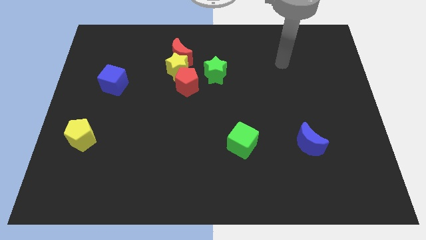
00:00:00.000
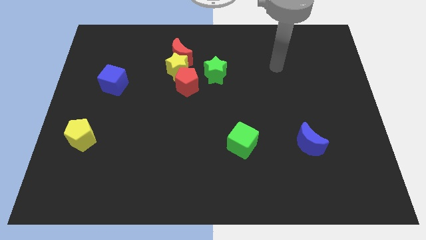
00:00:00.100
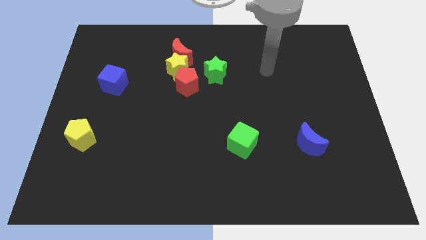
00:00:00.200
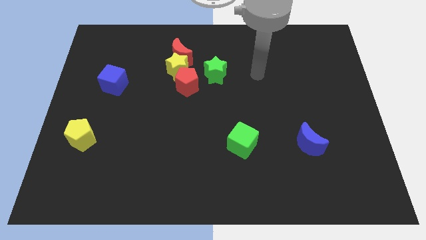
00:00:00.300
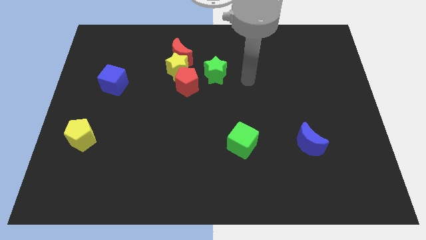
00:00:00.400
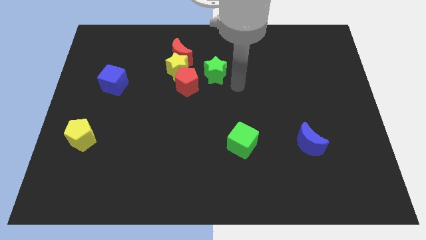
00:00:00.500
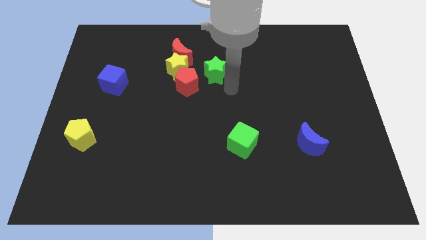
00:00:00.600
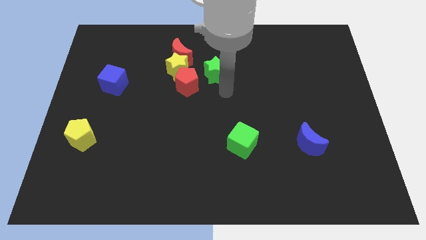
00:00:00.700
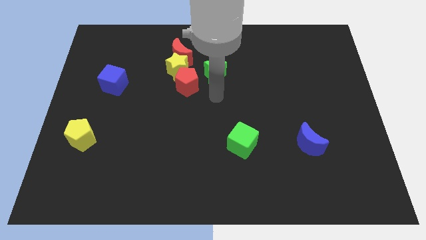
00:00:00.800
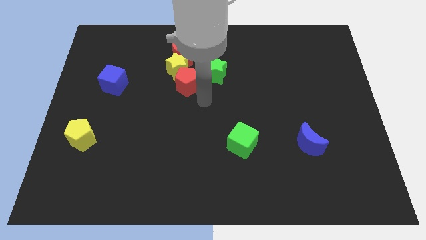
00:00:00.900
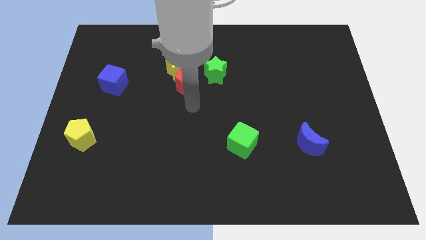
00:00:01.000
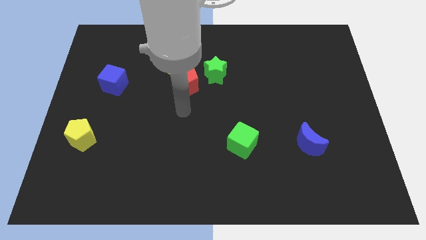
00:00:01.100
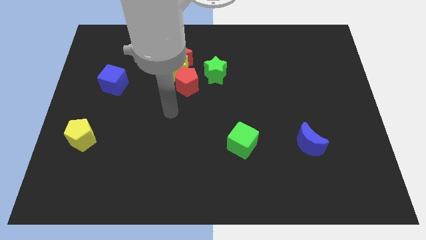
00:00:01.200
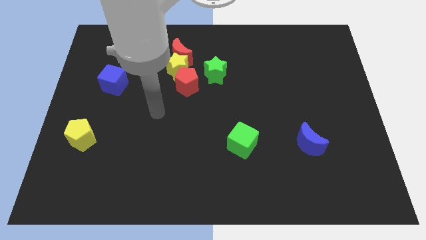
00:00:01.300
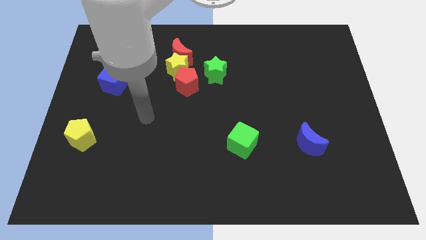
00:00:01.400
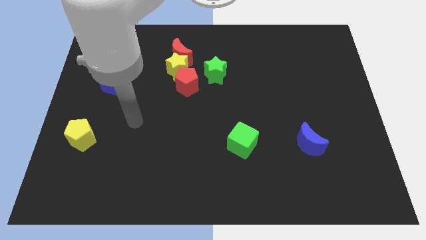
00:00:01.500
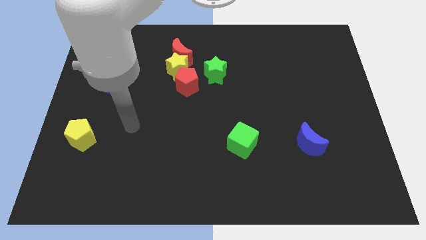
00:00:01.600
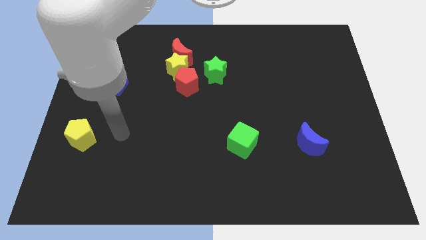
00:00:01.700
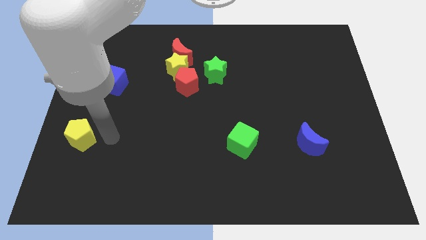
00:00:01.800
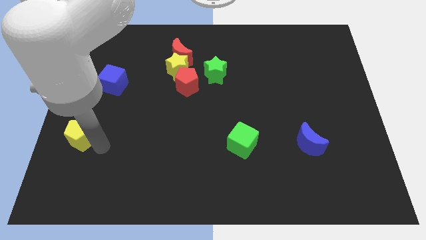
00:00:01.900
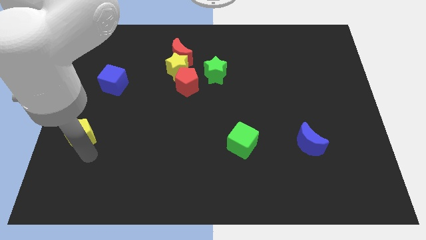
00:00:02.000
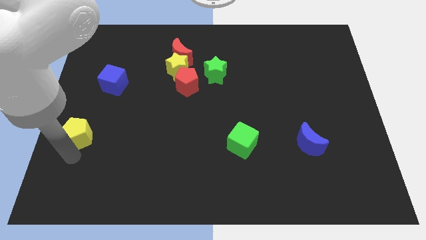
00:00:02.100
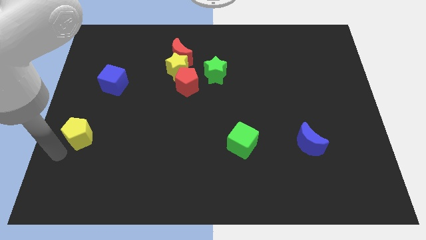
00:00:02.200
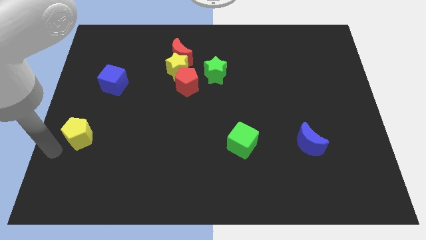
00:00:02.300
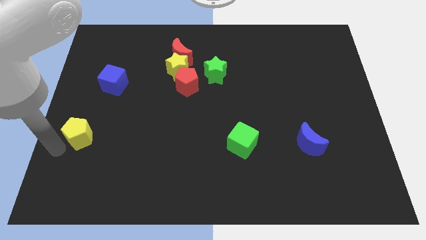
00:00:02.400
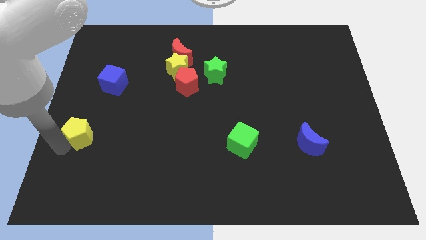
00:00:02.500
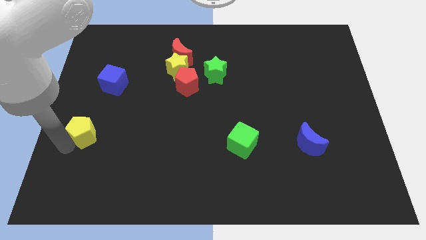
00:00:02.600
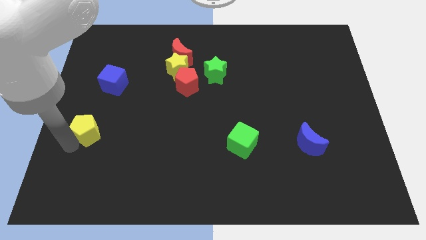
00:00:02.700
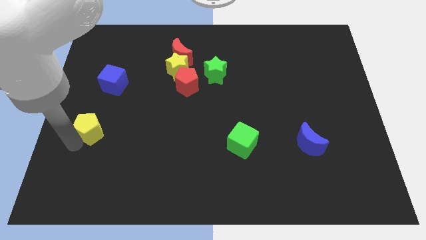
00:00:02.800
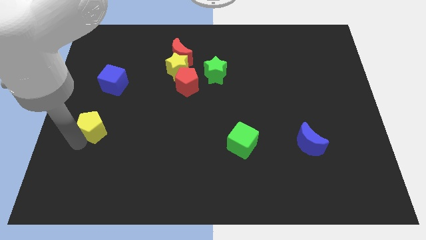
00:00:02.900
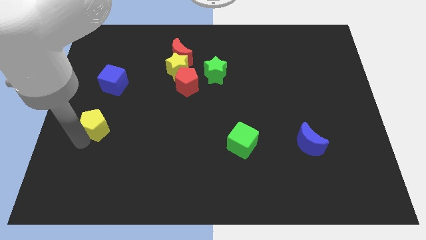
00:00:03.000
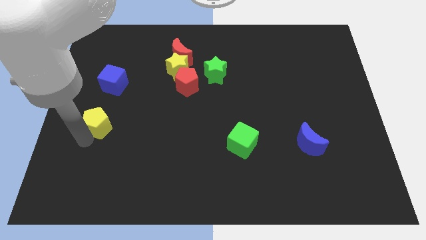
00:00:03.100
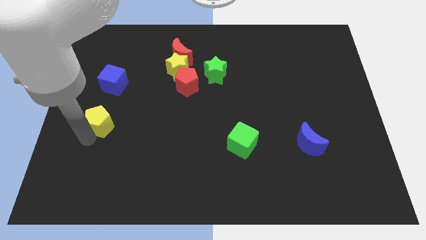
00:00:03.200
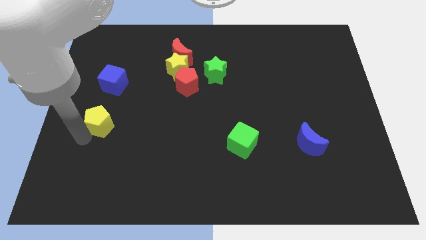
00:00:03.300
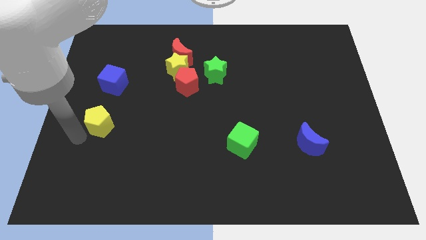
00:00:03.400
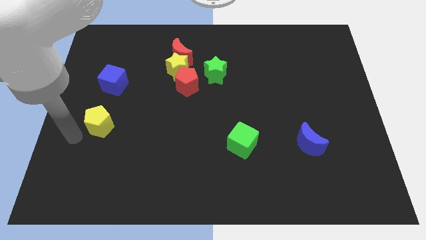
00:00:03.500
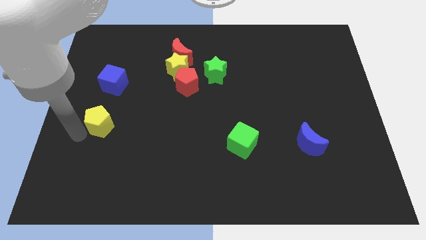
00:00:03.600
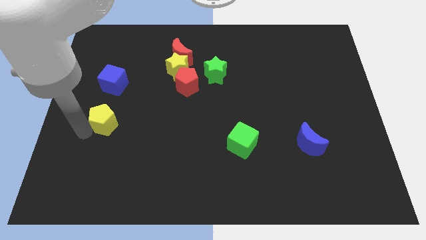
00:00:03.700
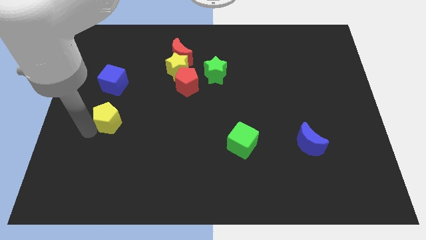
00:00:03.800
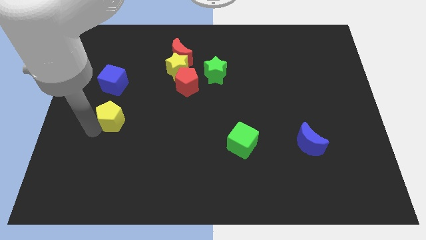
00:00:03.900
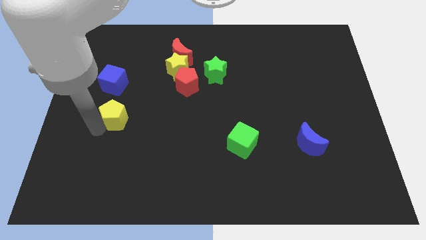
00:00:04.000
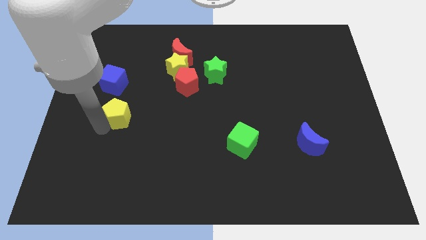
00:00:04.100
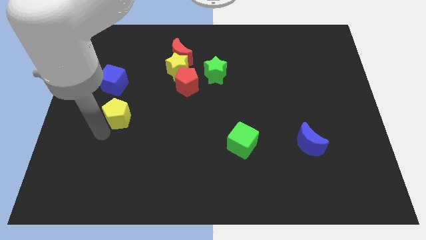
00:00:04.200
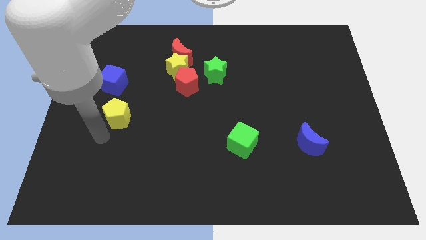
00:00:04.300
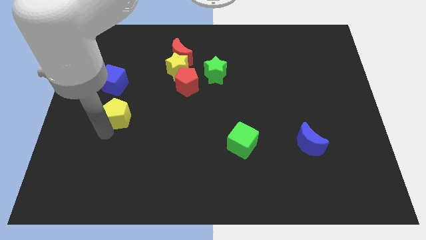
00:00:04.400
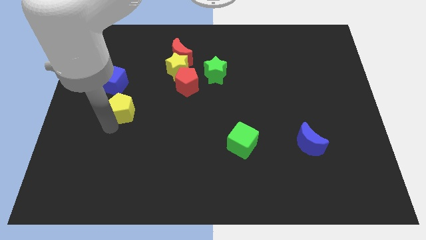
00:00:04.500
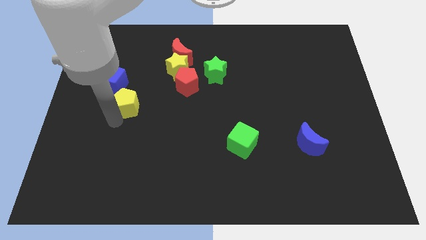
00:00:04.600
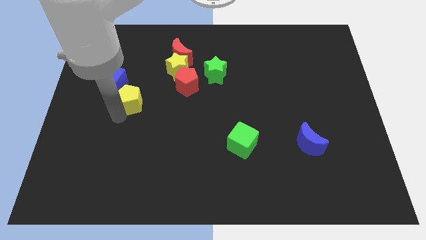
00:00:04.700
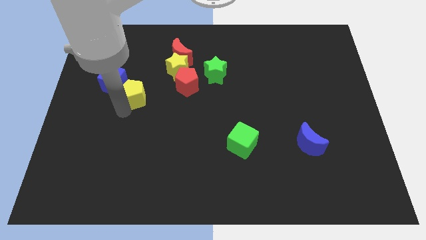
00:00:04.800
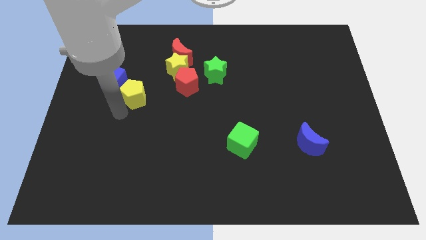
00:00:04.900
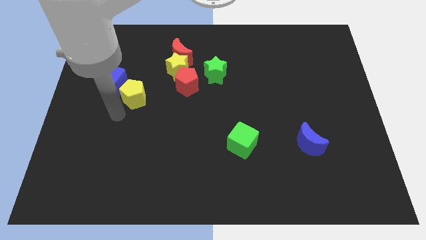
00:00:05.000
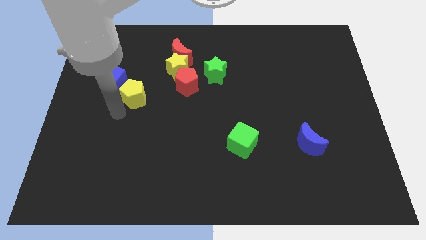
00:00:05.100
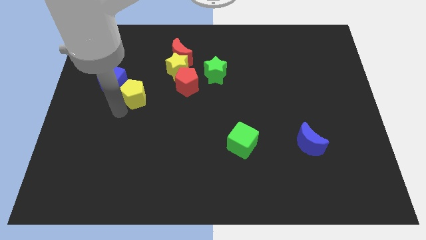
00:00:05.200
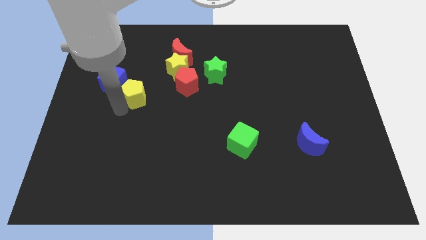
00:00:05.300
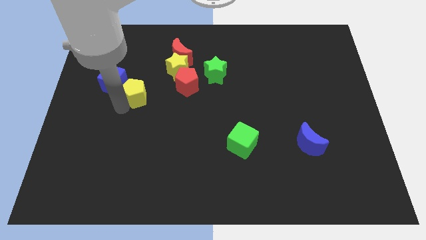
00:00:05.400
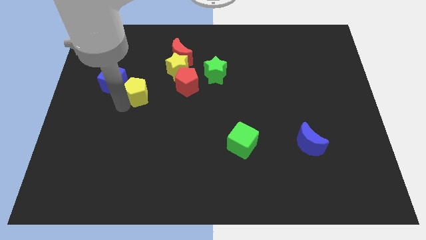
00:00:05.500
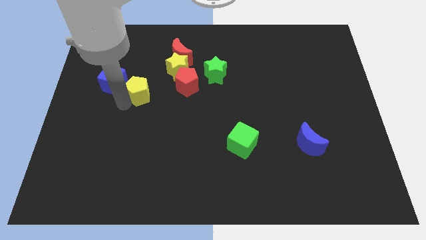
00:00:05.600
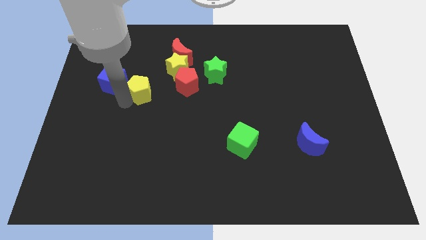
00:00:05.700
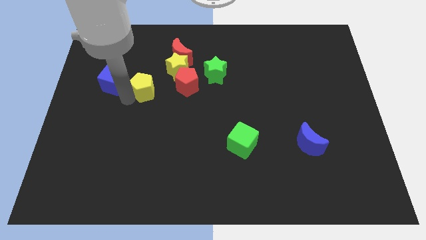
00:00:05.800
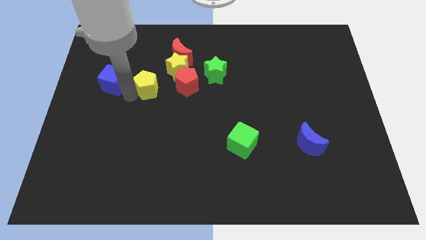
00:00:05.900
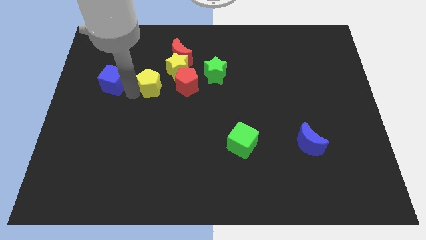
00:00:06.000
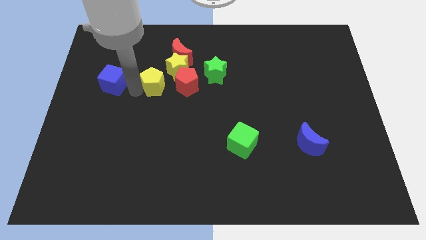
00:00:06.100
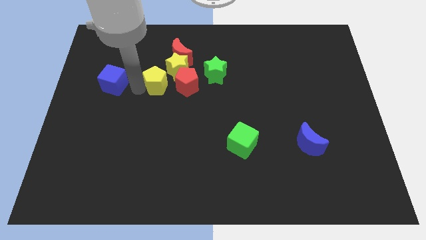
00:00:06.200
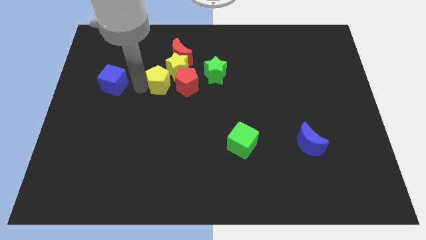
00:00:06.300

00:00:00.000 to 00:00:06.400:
push the yellow pentagon close to the yellow star

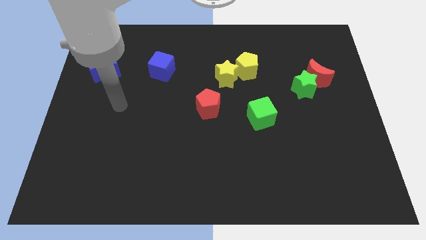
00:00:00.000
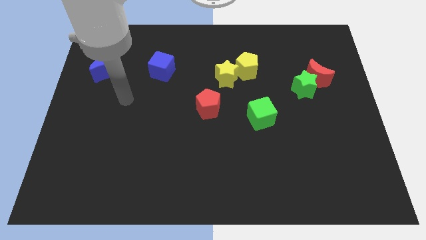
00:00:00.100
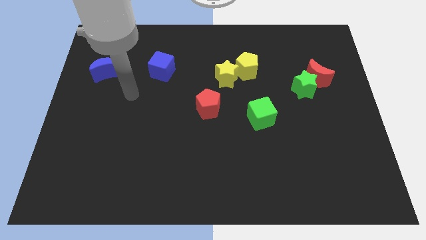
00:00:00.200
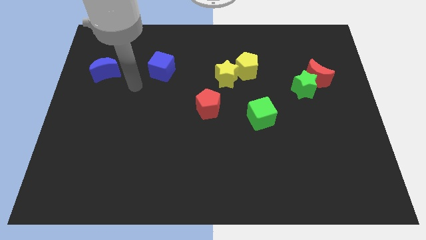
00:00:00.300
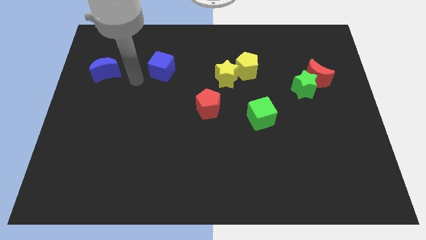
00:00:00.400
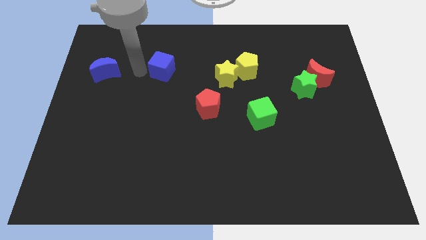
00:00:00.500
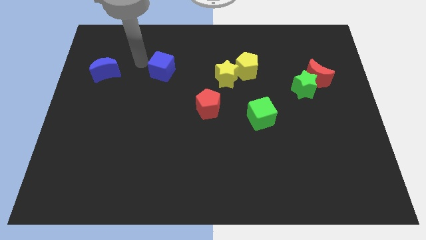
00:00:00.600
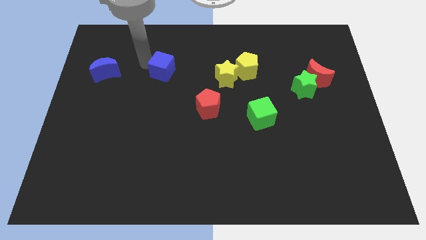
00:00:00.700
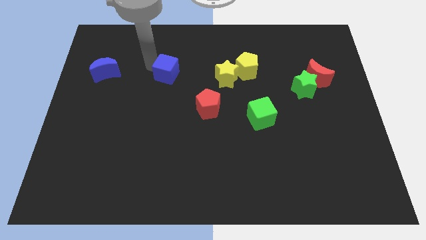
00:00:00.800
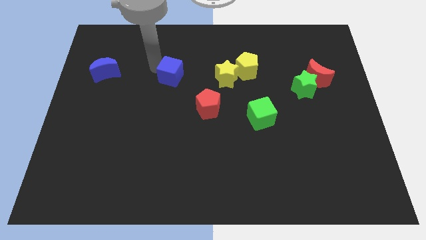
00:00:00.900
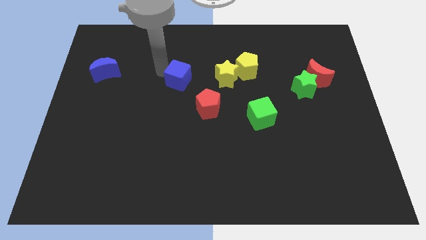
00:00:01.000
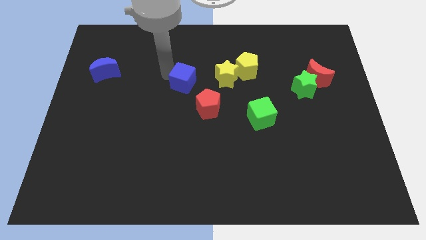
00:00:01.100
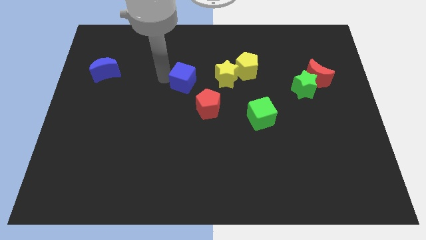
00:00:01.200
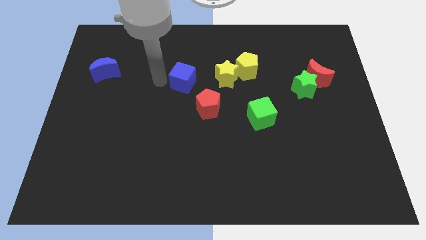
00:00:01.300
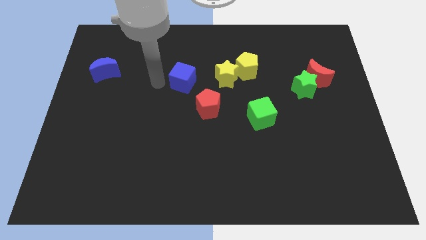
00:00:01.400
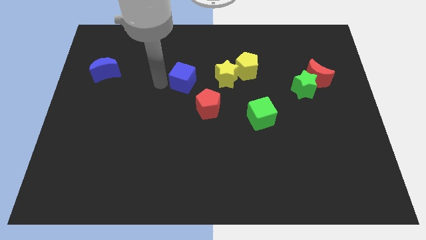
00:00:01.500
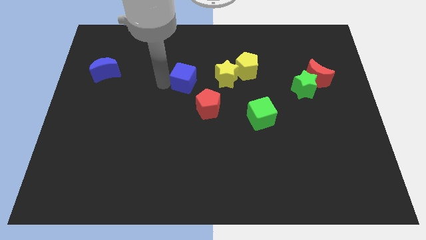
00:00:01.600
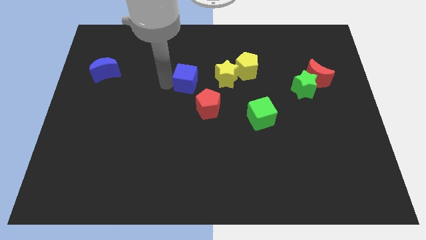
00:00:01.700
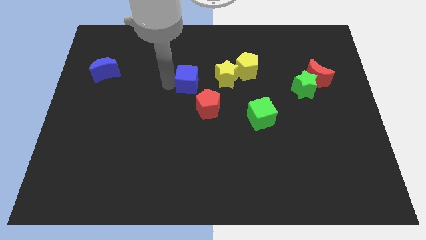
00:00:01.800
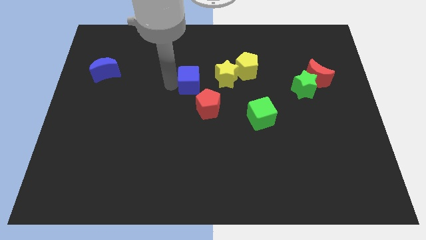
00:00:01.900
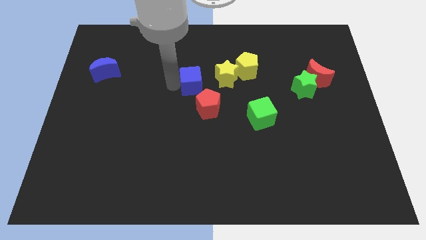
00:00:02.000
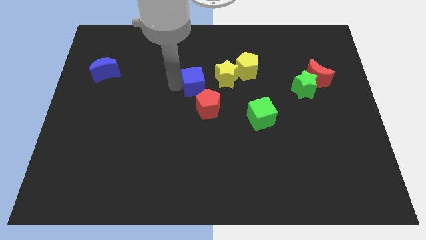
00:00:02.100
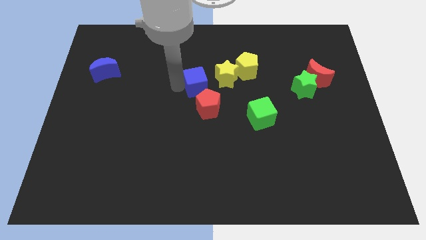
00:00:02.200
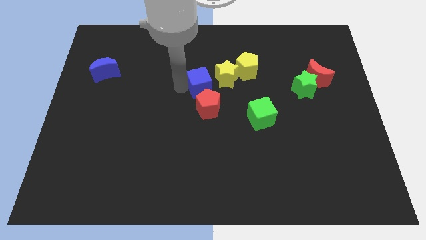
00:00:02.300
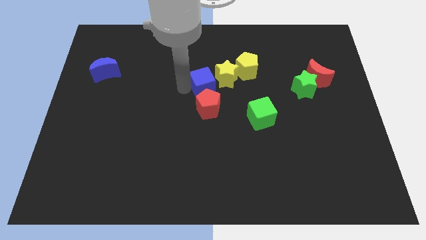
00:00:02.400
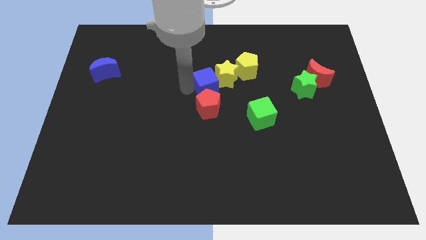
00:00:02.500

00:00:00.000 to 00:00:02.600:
move the blue cube next to the yellow star
